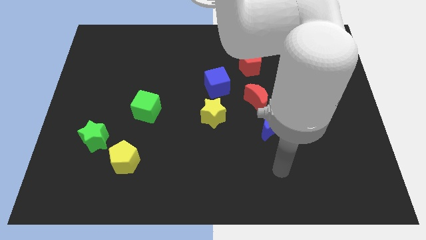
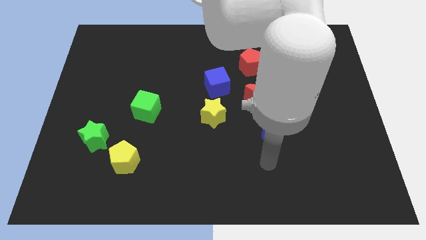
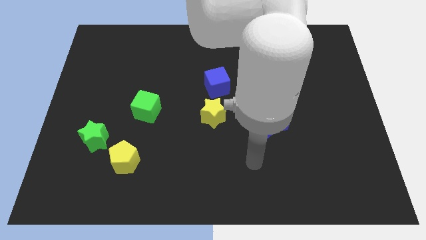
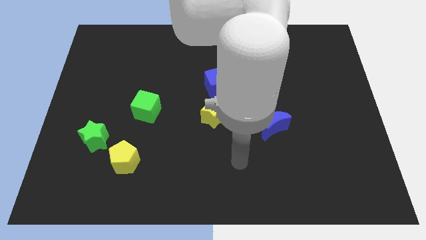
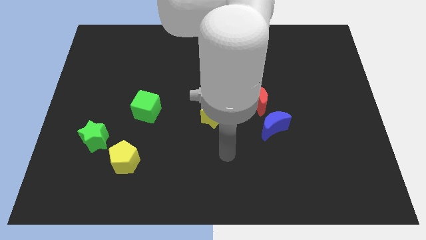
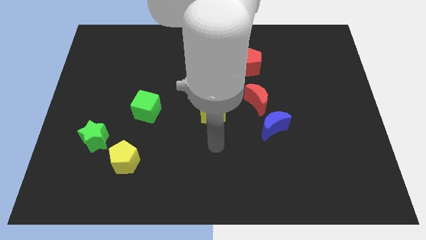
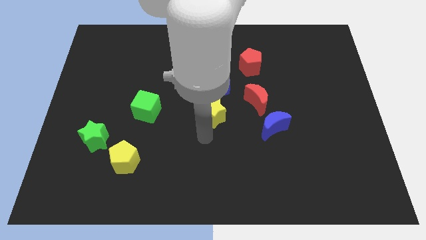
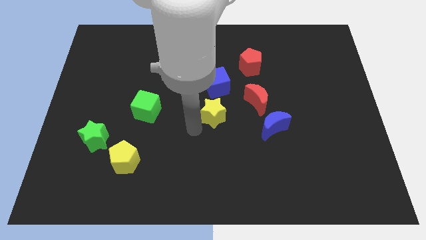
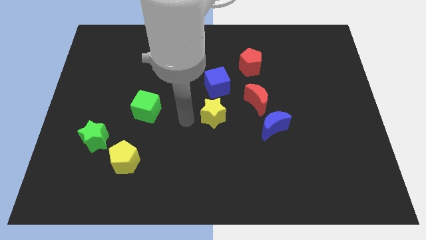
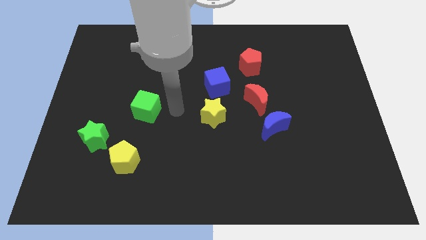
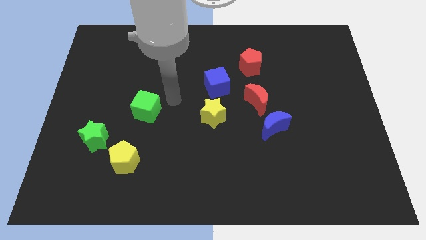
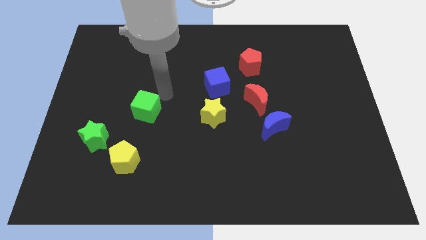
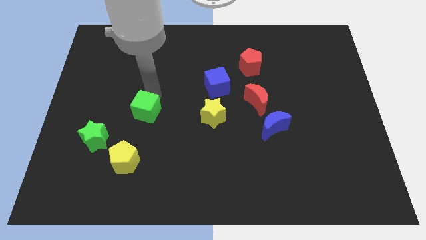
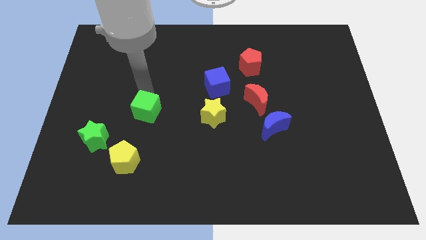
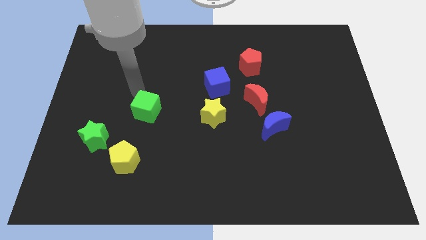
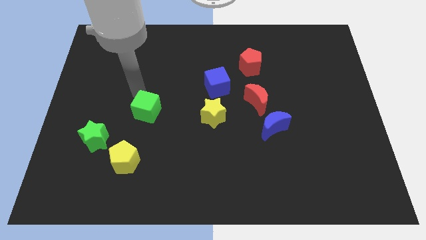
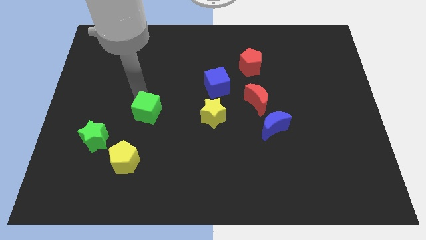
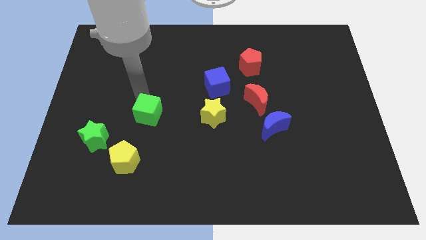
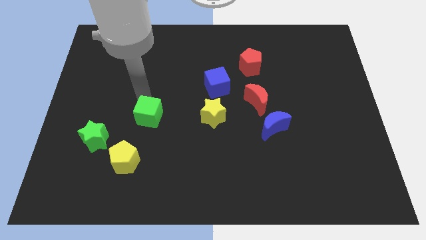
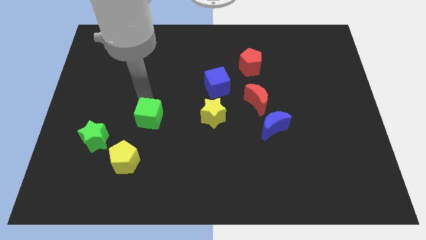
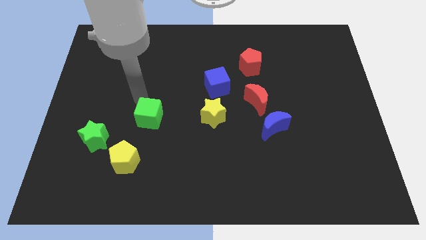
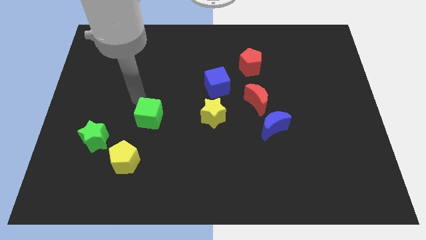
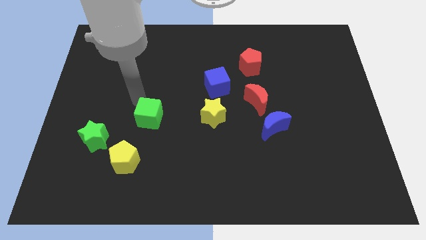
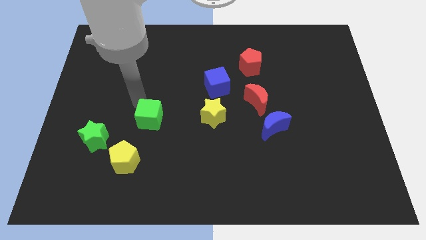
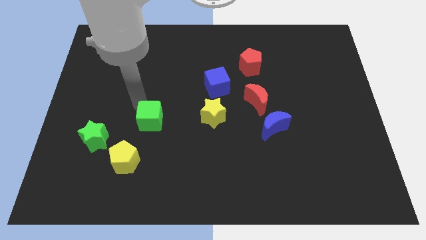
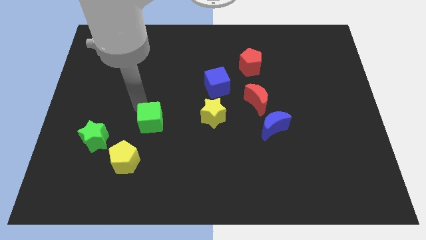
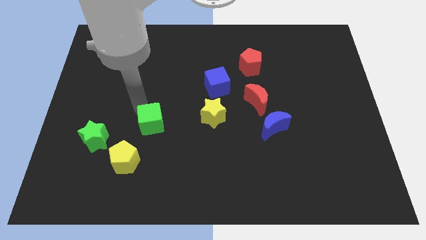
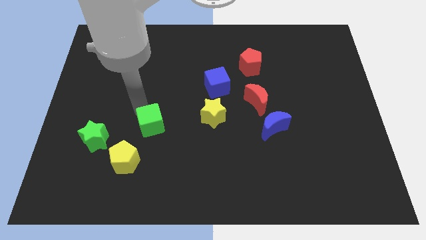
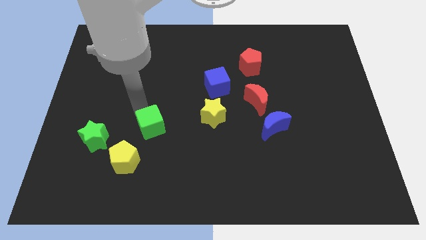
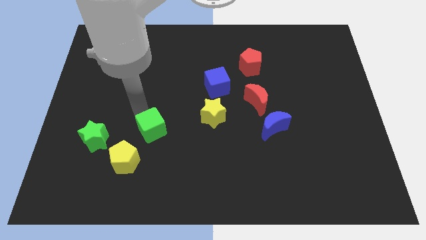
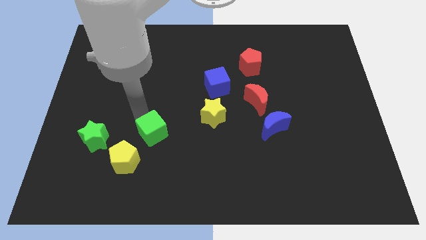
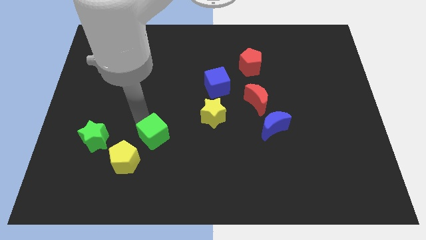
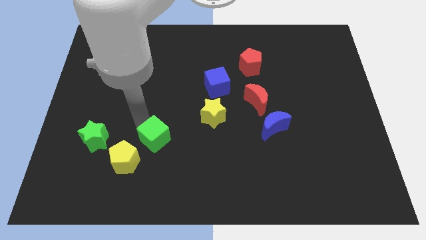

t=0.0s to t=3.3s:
slide the green cube diagonally down and right somewhat

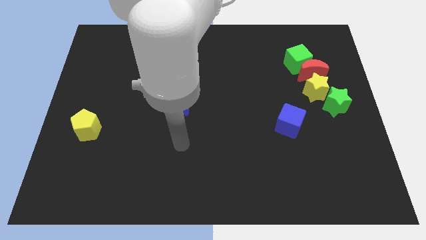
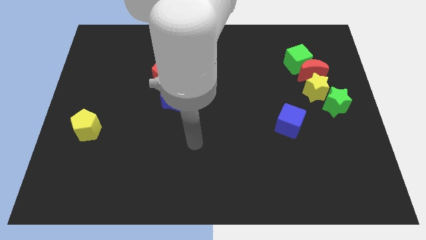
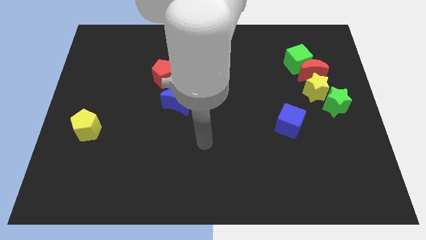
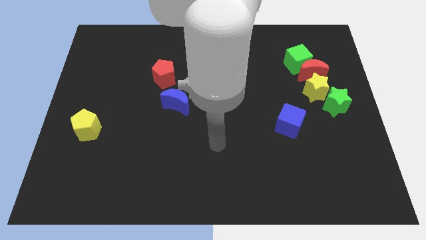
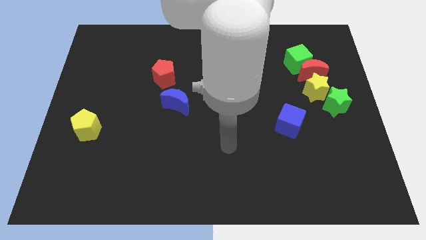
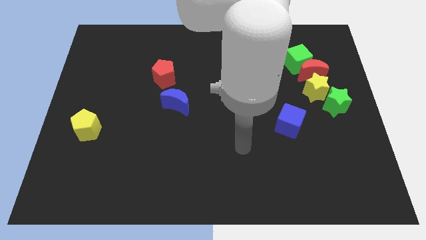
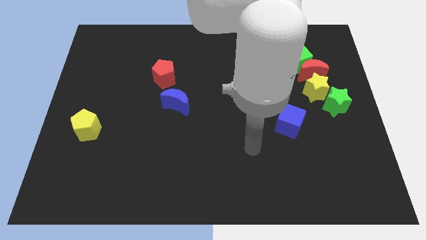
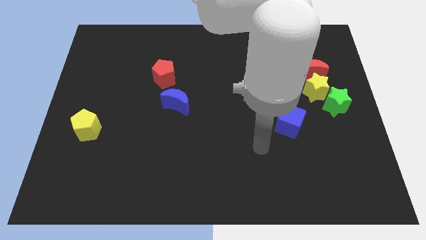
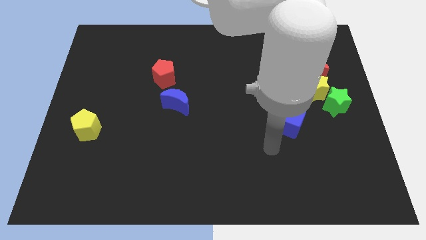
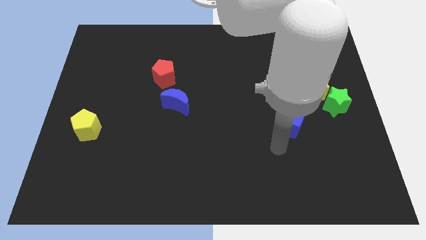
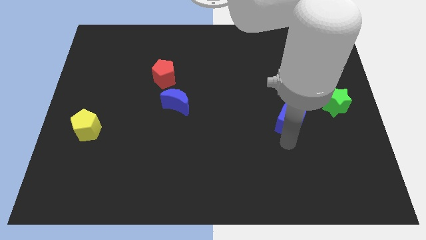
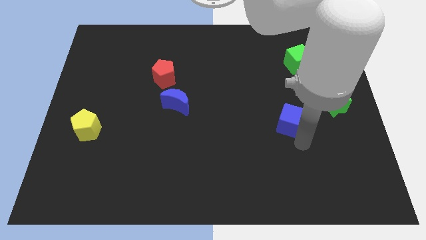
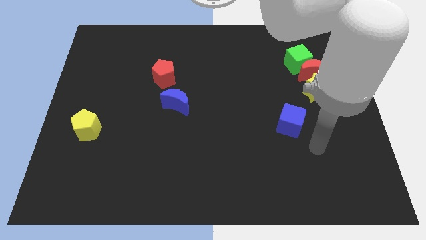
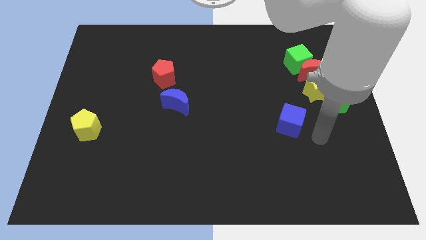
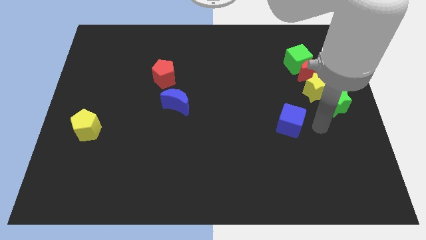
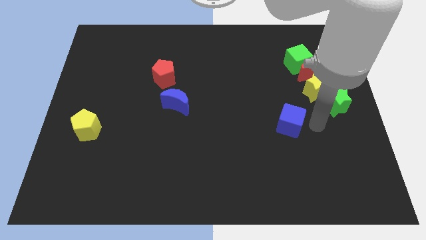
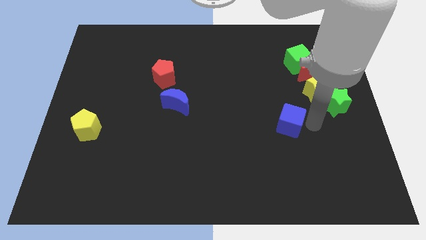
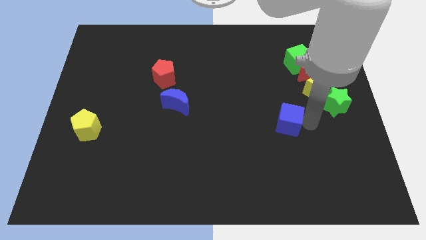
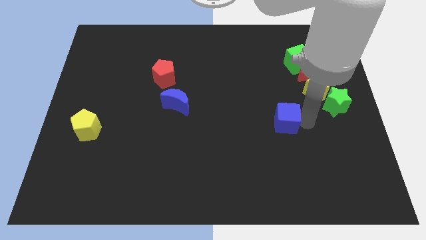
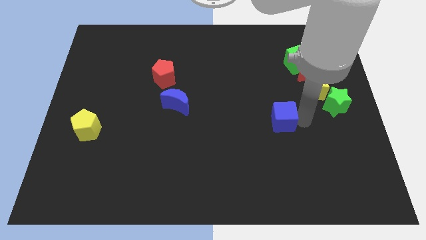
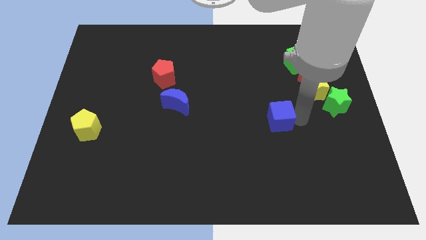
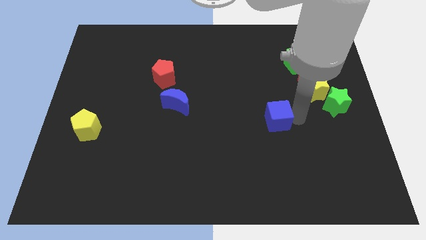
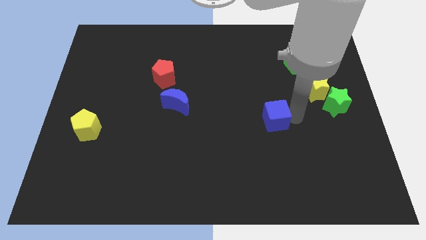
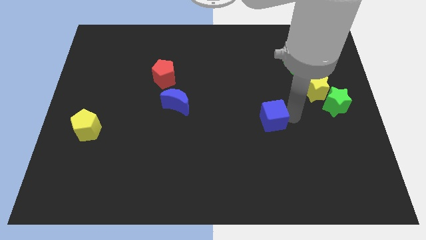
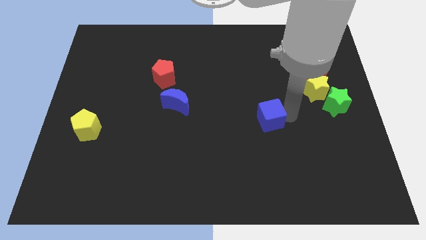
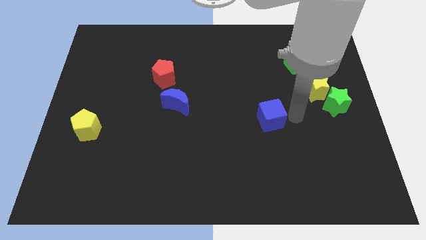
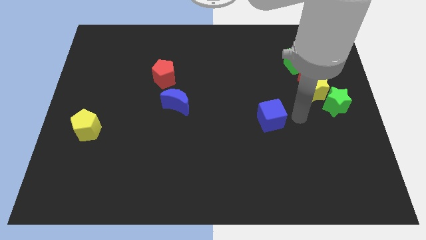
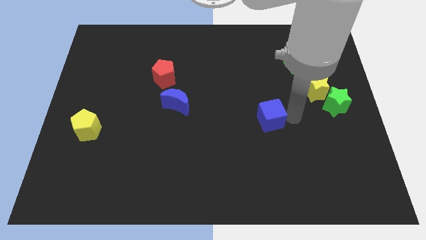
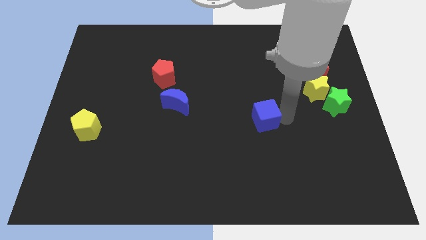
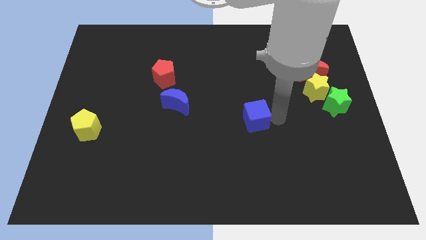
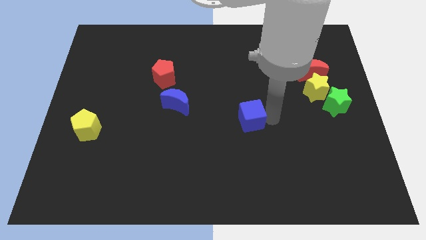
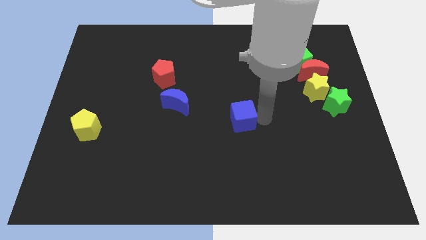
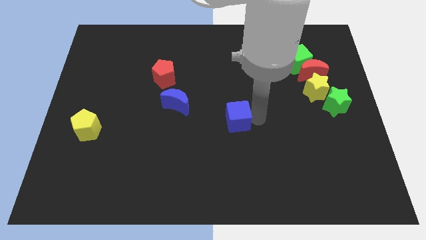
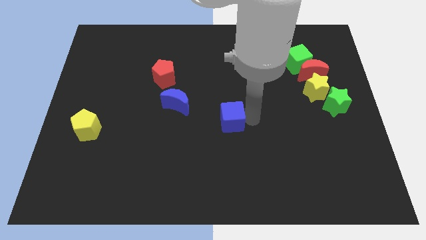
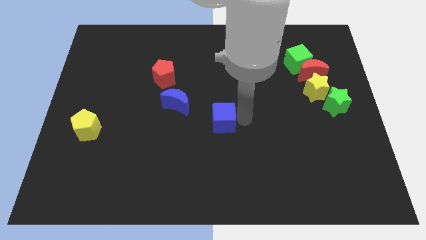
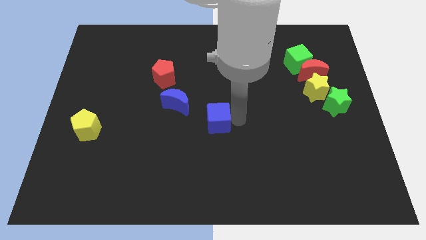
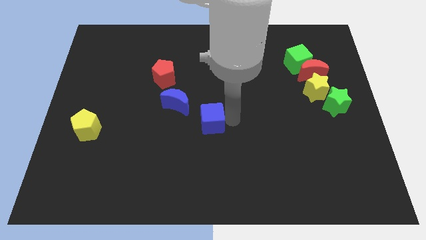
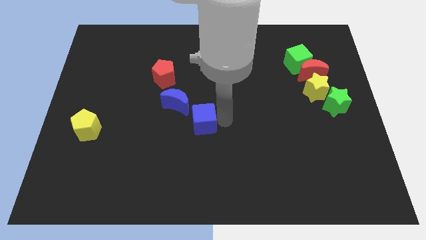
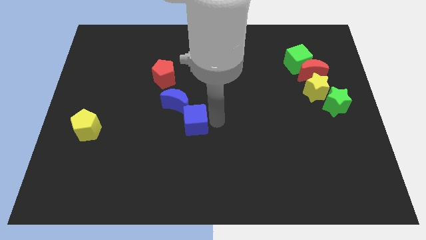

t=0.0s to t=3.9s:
slide the blue cube to the left

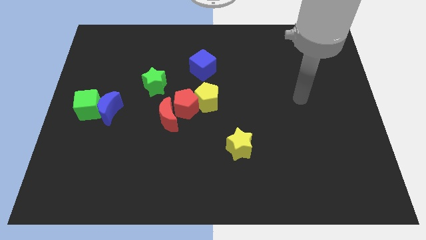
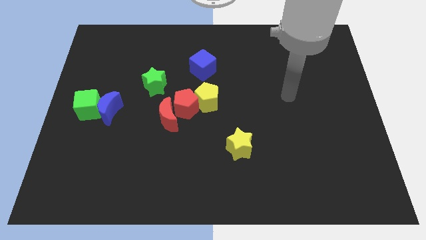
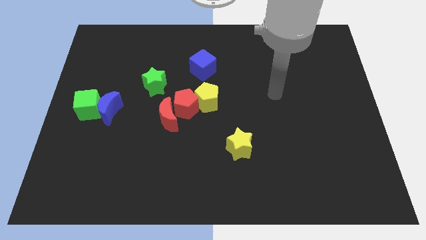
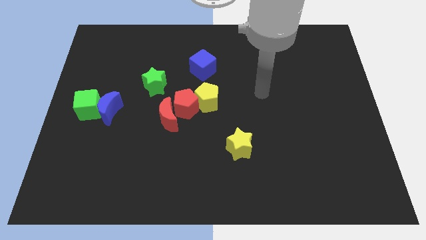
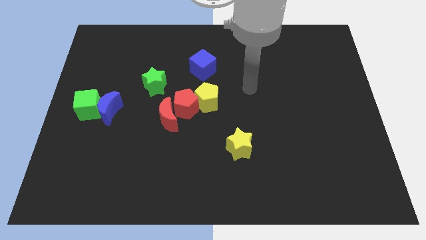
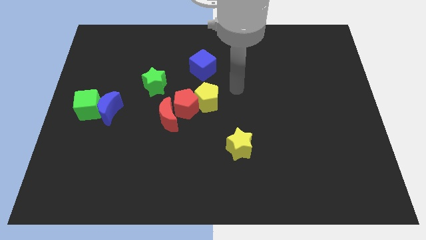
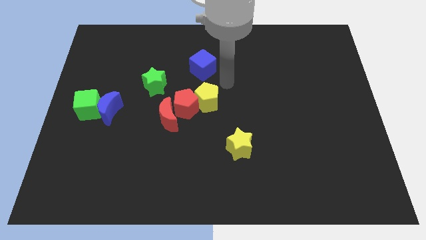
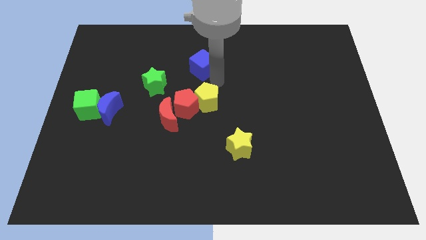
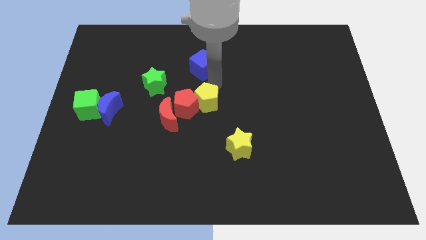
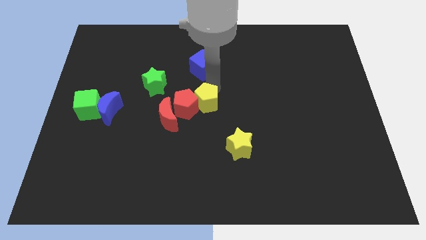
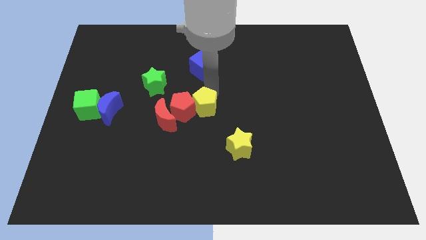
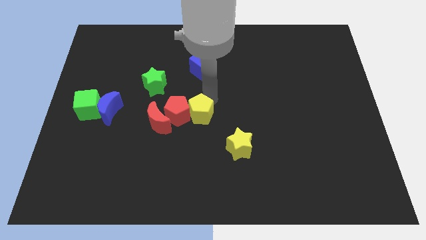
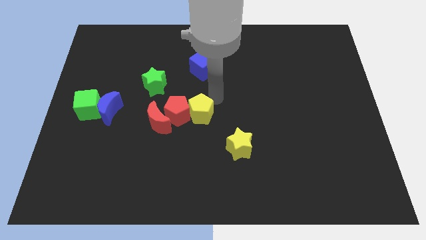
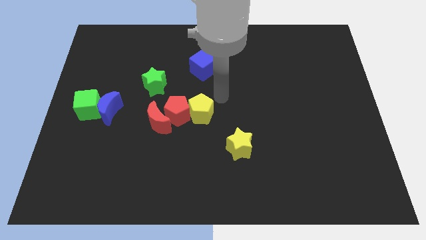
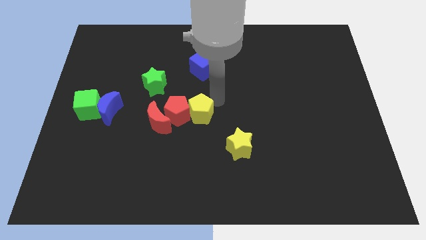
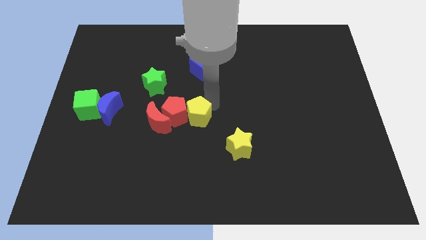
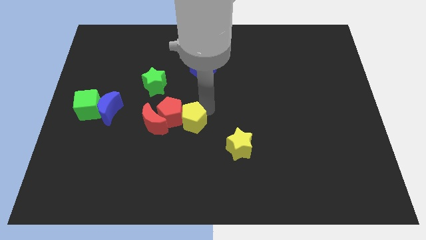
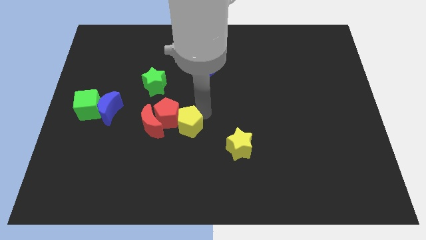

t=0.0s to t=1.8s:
move the yellow pentagon downwards and left a bit
